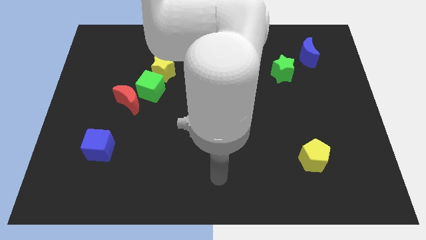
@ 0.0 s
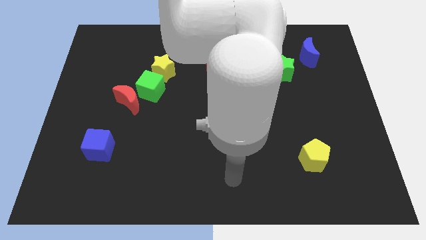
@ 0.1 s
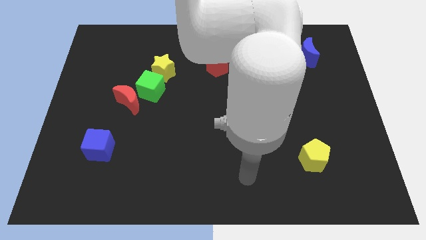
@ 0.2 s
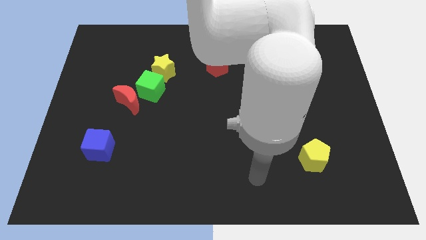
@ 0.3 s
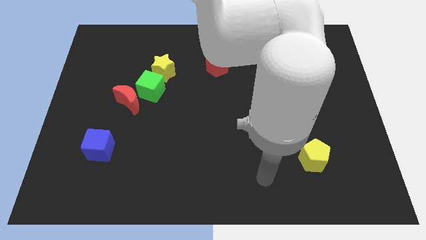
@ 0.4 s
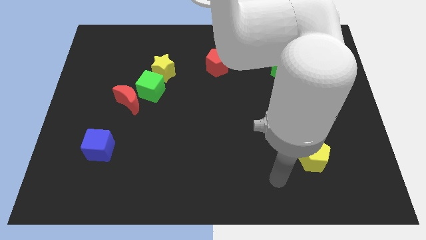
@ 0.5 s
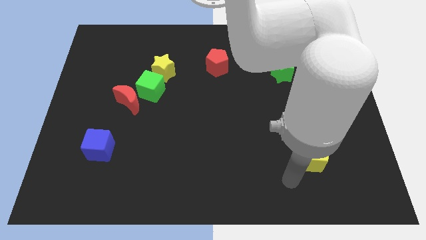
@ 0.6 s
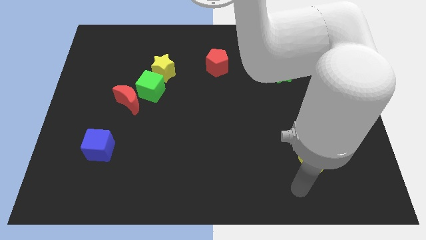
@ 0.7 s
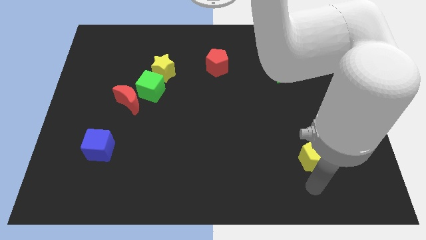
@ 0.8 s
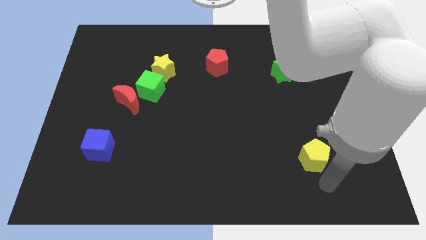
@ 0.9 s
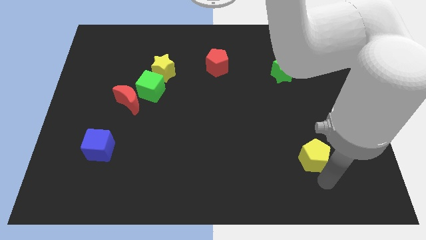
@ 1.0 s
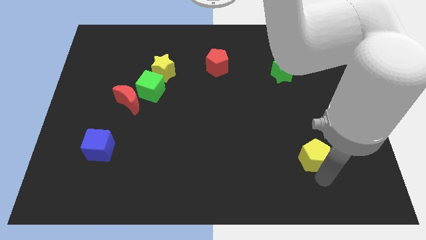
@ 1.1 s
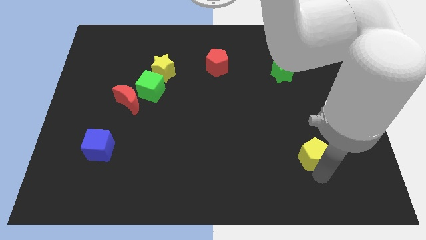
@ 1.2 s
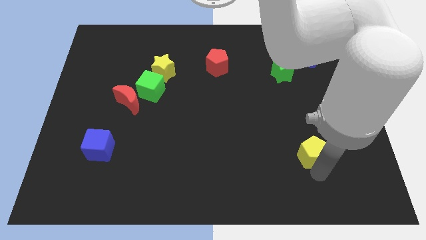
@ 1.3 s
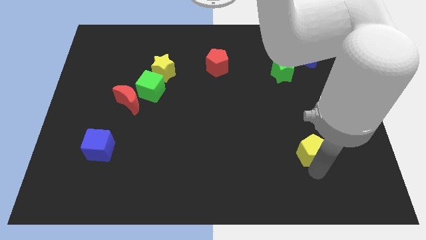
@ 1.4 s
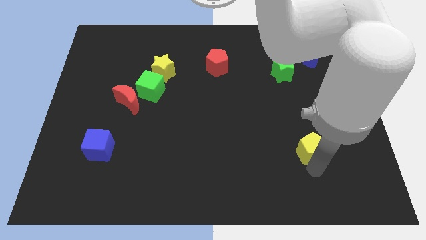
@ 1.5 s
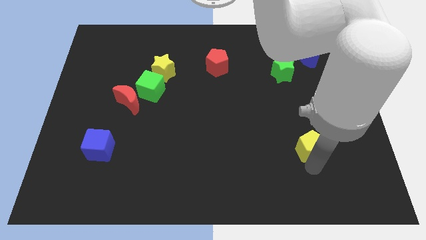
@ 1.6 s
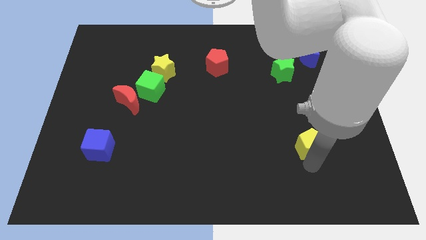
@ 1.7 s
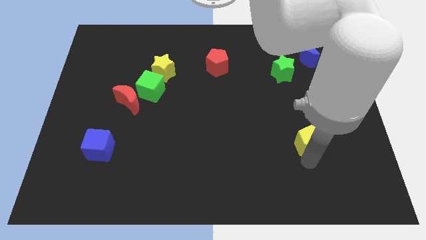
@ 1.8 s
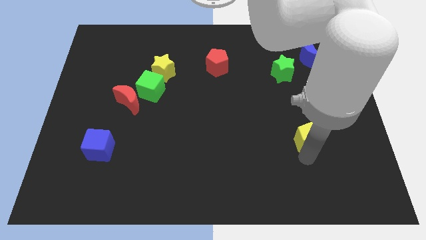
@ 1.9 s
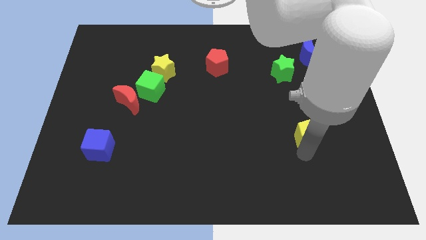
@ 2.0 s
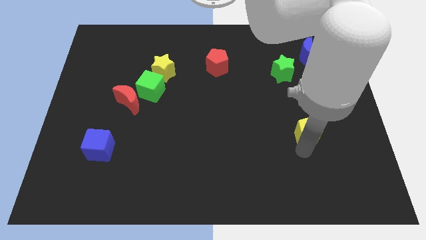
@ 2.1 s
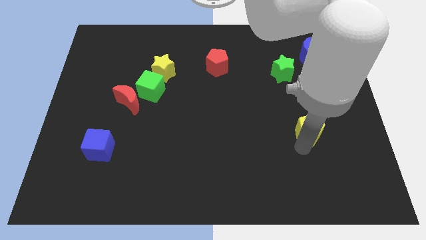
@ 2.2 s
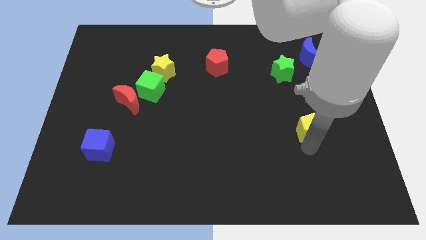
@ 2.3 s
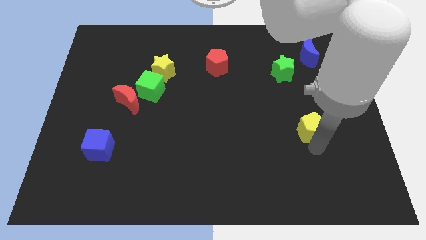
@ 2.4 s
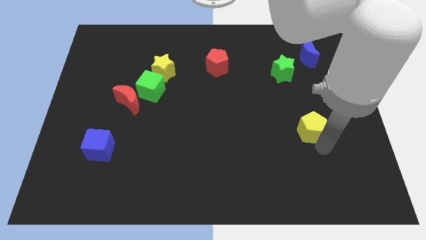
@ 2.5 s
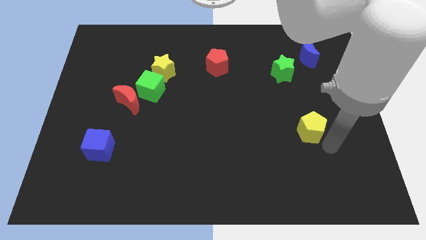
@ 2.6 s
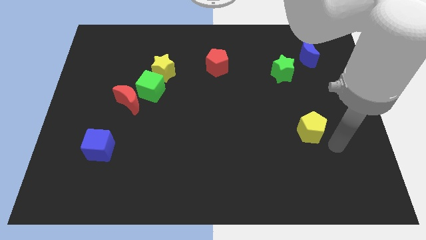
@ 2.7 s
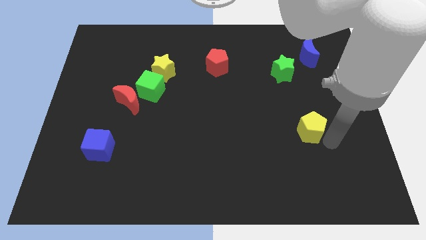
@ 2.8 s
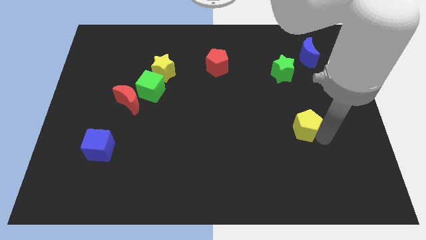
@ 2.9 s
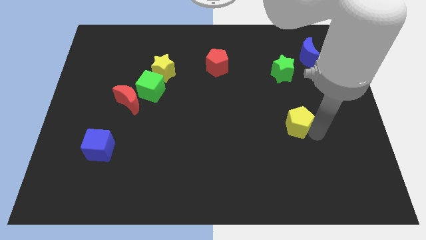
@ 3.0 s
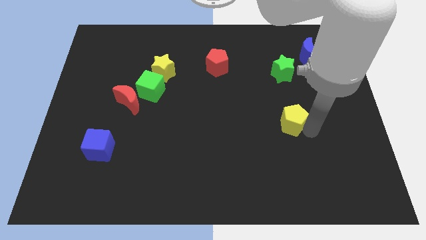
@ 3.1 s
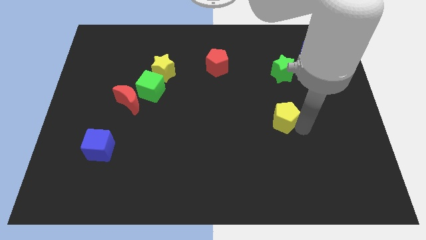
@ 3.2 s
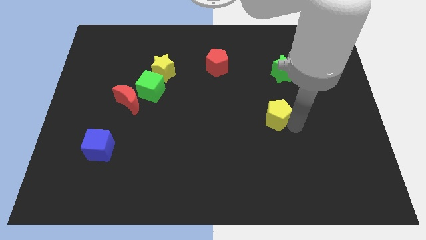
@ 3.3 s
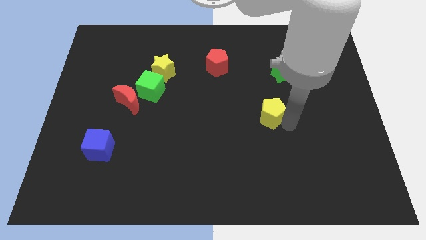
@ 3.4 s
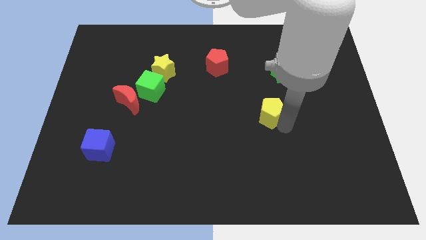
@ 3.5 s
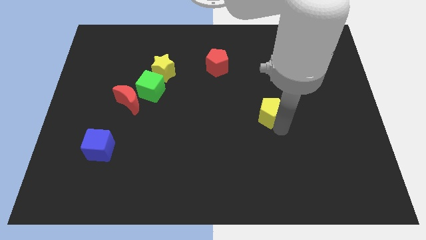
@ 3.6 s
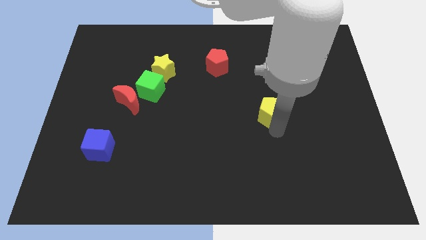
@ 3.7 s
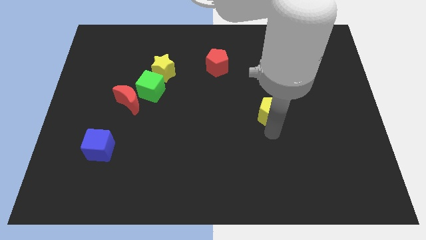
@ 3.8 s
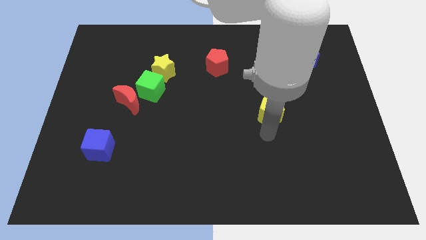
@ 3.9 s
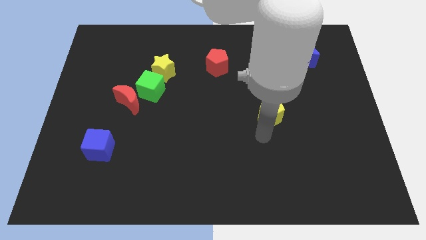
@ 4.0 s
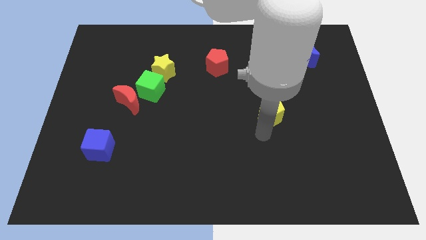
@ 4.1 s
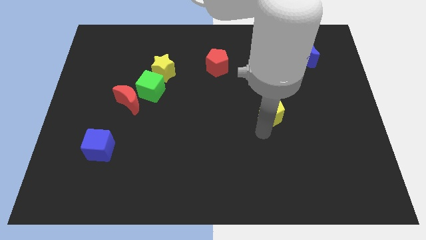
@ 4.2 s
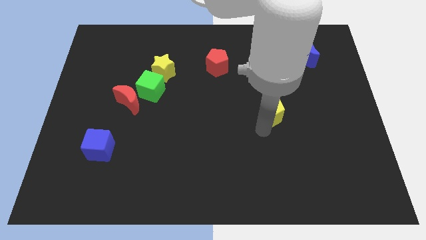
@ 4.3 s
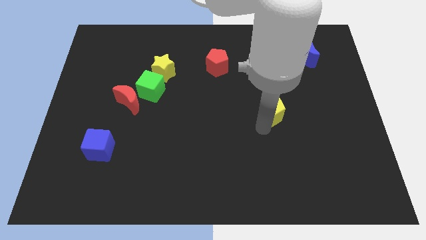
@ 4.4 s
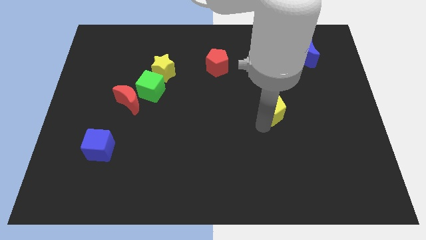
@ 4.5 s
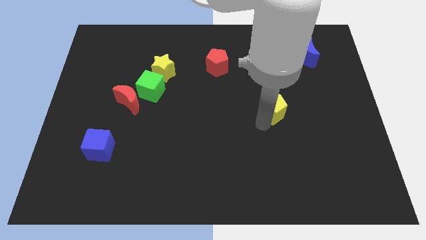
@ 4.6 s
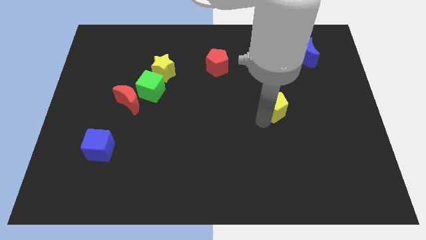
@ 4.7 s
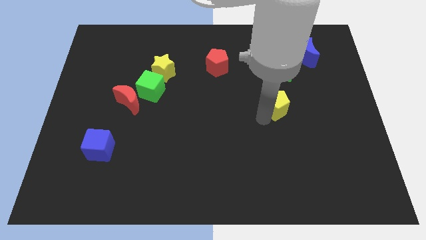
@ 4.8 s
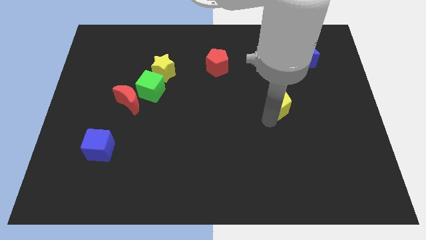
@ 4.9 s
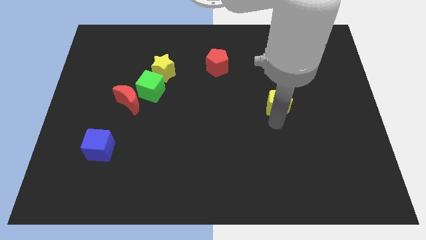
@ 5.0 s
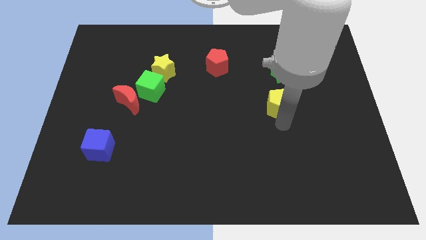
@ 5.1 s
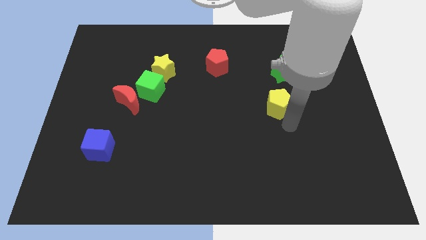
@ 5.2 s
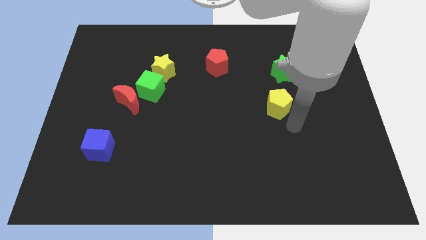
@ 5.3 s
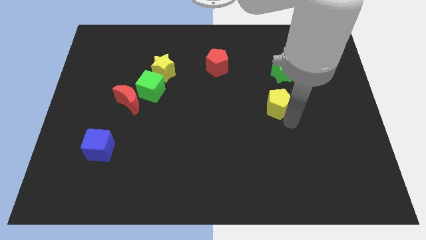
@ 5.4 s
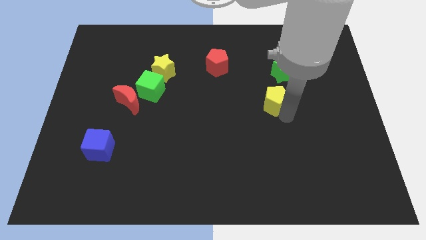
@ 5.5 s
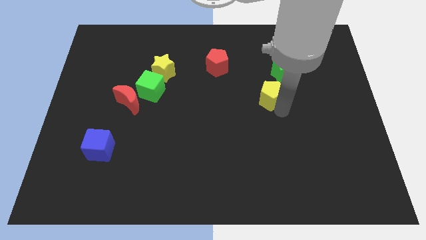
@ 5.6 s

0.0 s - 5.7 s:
slide the yellow pentagon to the bottom left side of the green star

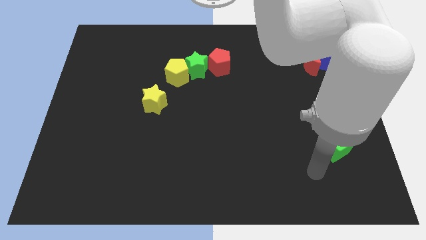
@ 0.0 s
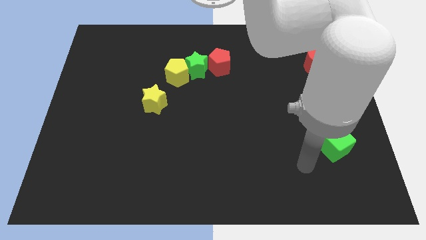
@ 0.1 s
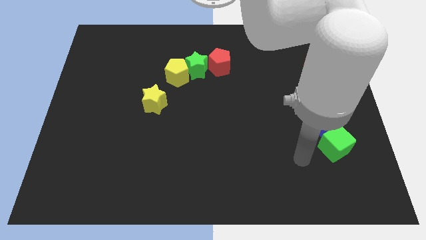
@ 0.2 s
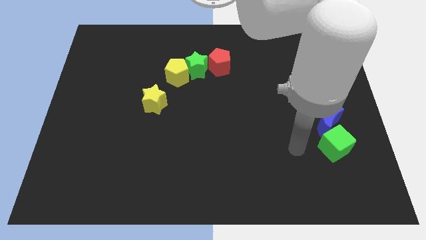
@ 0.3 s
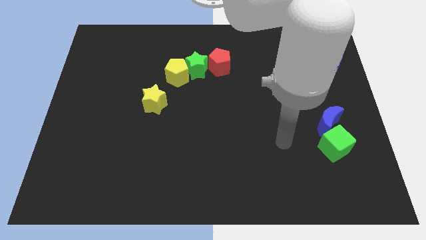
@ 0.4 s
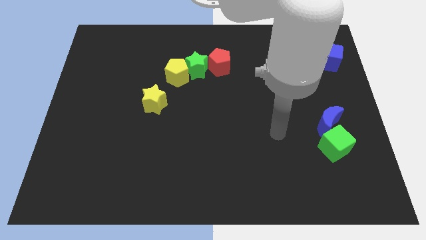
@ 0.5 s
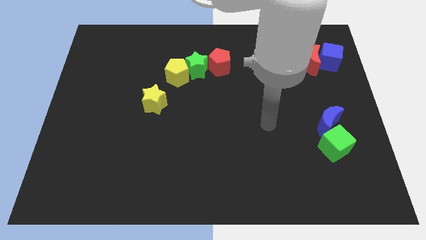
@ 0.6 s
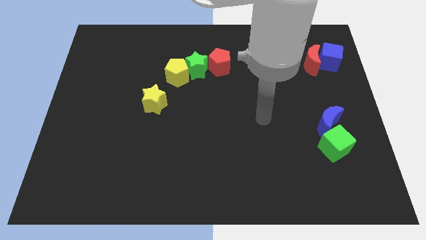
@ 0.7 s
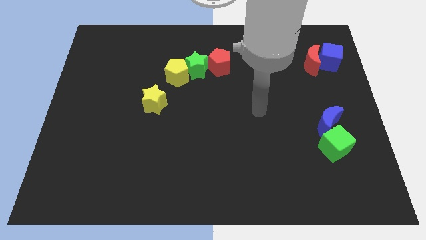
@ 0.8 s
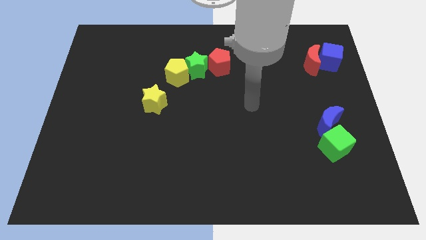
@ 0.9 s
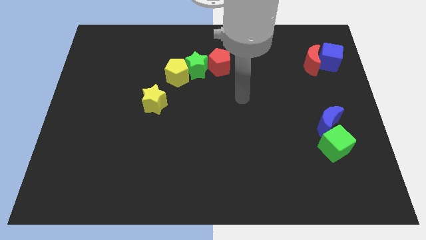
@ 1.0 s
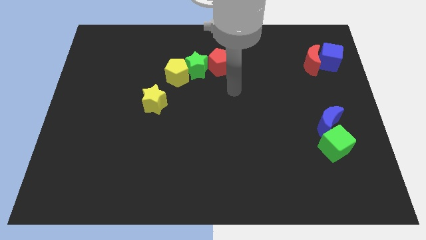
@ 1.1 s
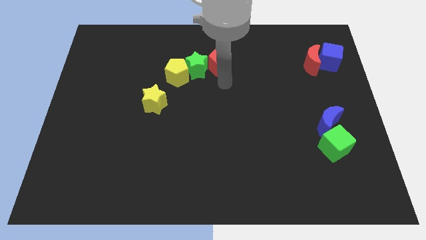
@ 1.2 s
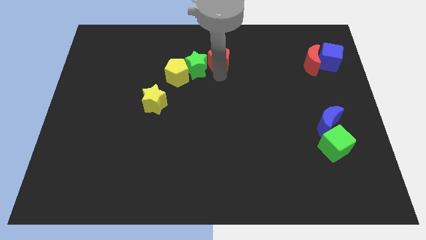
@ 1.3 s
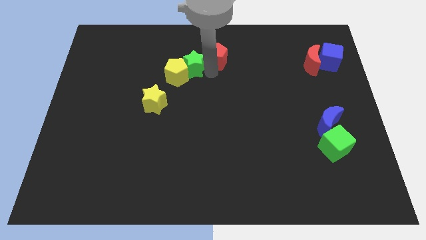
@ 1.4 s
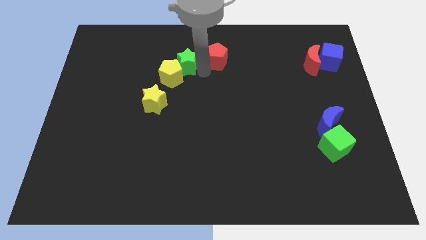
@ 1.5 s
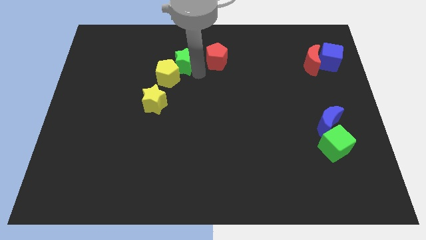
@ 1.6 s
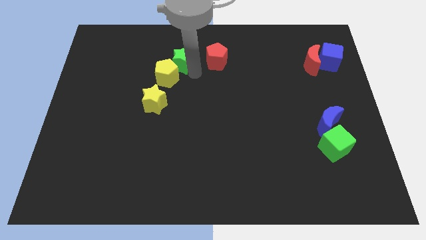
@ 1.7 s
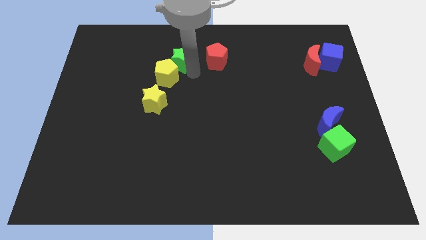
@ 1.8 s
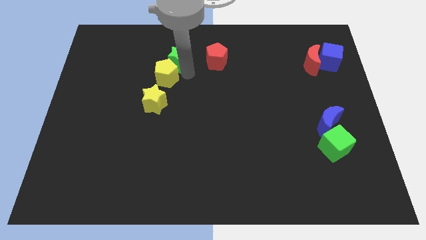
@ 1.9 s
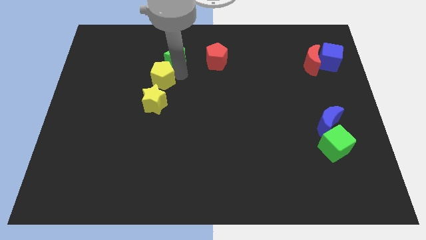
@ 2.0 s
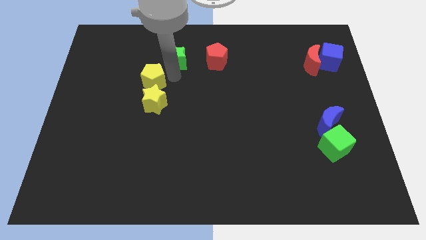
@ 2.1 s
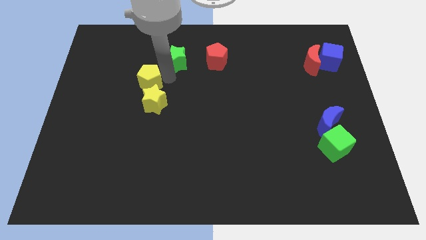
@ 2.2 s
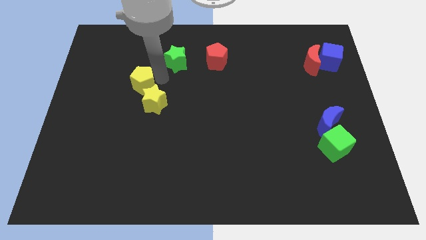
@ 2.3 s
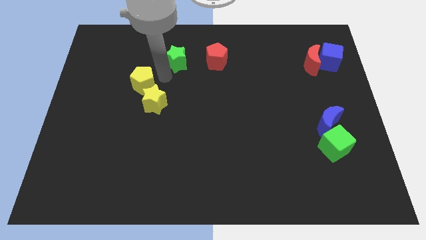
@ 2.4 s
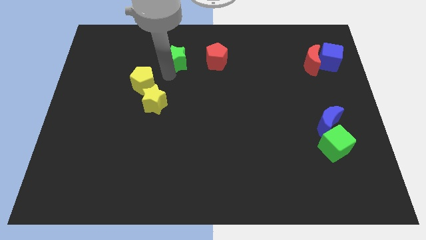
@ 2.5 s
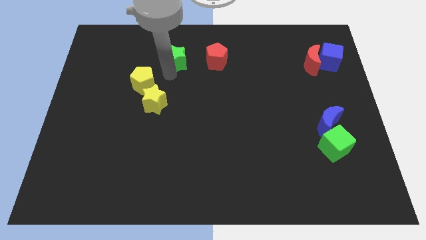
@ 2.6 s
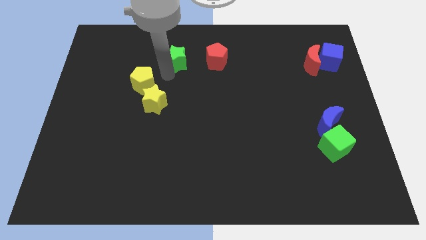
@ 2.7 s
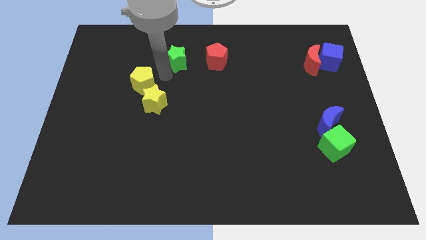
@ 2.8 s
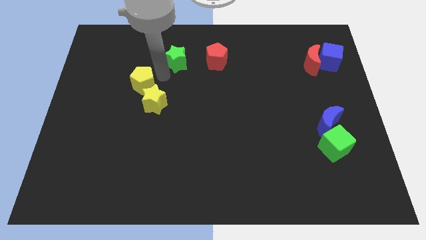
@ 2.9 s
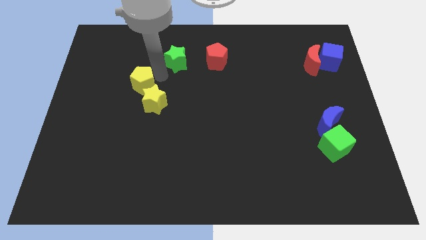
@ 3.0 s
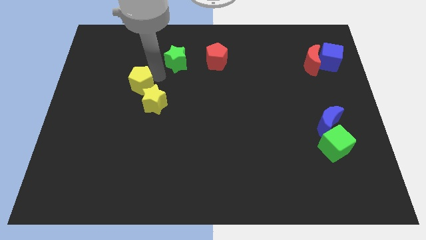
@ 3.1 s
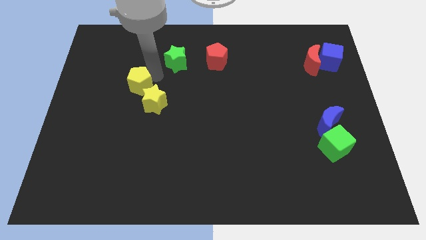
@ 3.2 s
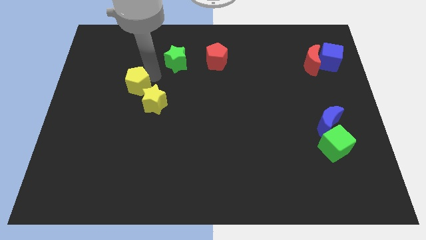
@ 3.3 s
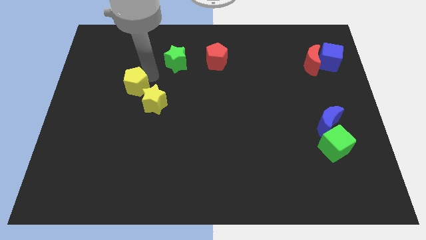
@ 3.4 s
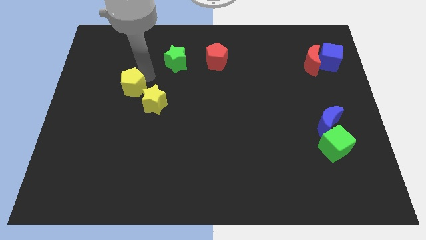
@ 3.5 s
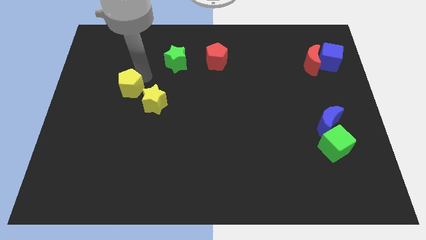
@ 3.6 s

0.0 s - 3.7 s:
slide the yellow pentagon to the left of the yellow star
